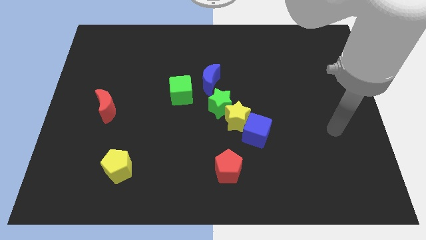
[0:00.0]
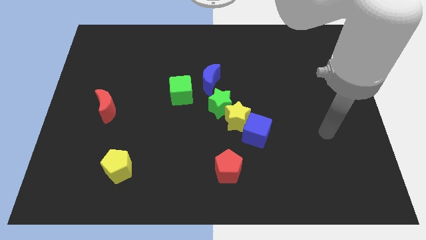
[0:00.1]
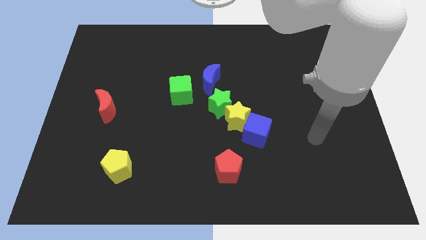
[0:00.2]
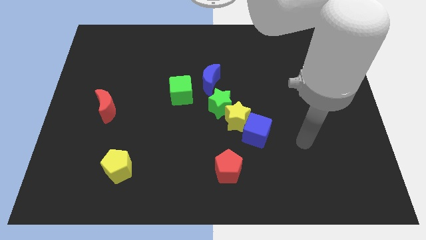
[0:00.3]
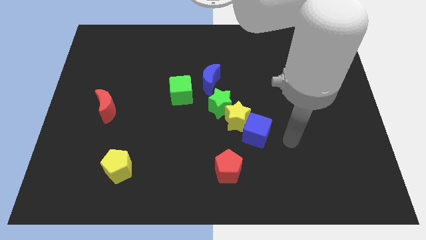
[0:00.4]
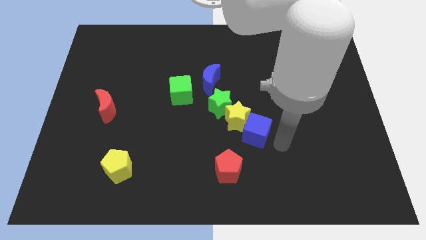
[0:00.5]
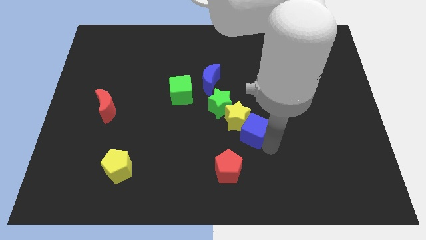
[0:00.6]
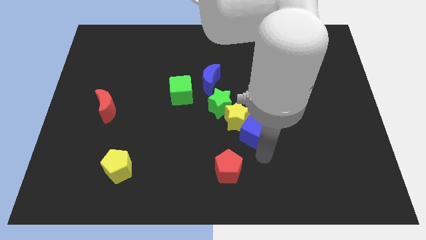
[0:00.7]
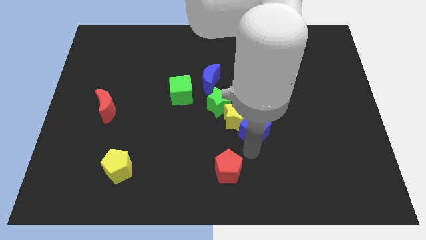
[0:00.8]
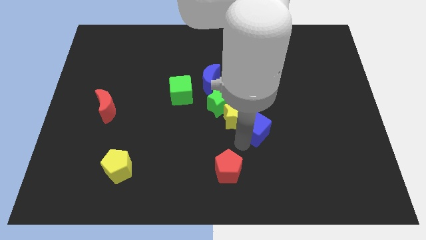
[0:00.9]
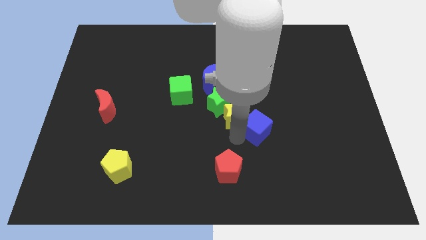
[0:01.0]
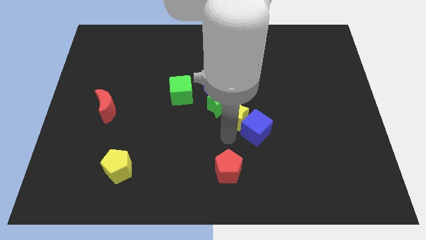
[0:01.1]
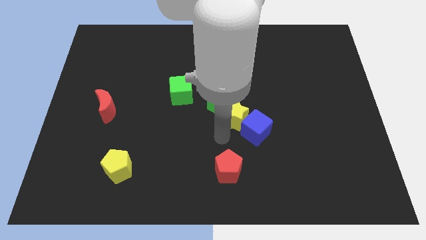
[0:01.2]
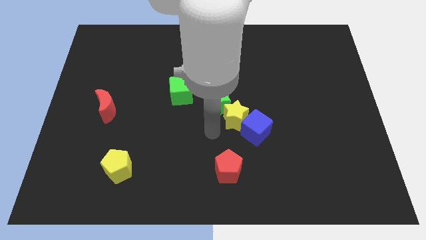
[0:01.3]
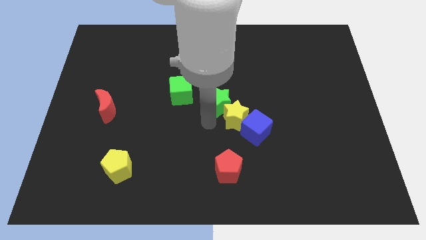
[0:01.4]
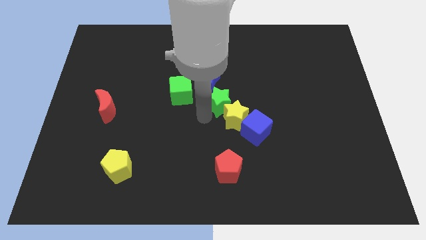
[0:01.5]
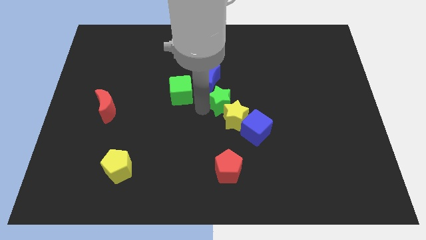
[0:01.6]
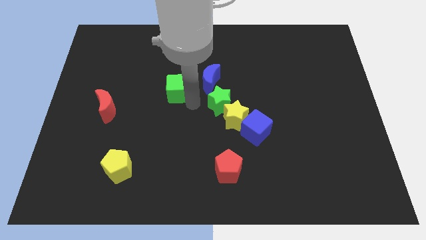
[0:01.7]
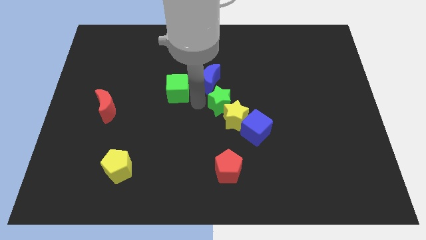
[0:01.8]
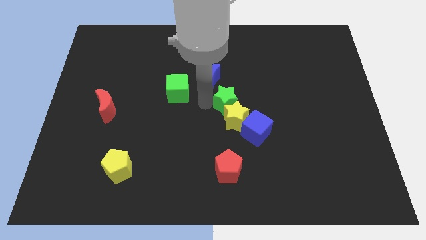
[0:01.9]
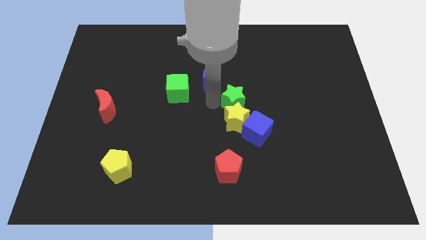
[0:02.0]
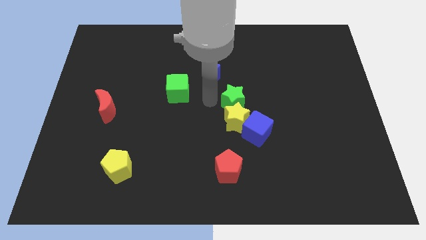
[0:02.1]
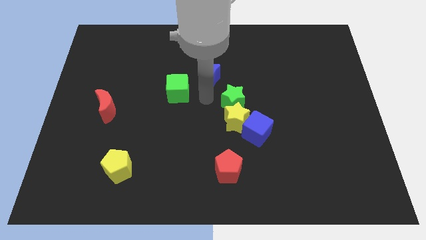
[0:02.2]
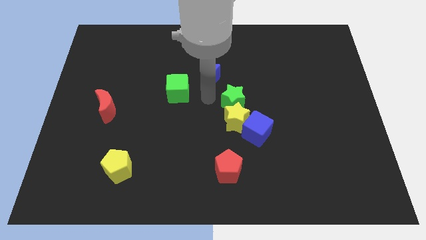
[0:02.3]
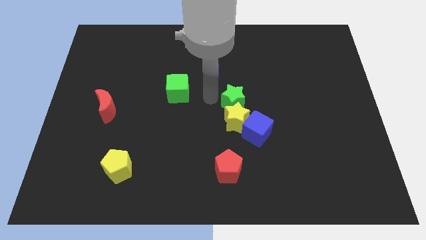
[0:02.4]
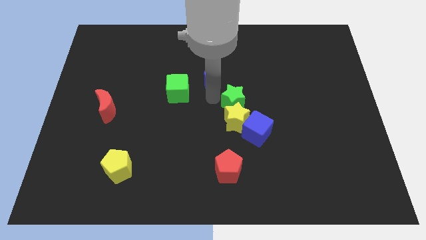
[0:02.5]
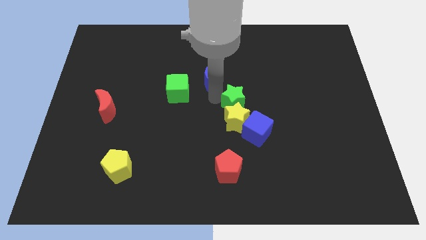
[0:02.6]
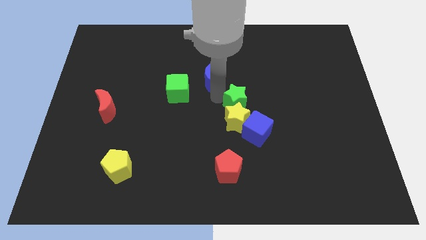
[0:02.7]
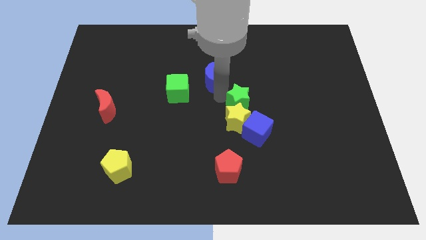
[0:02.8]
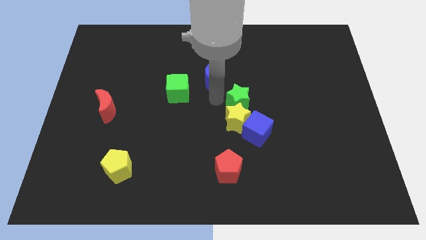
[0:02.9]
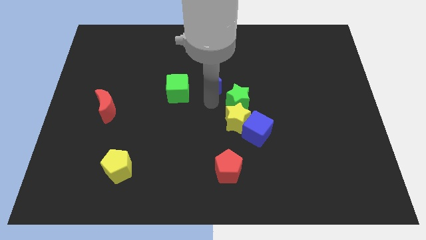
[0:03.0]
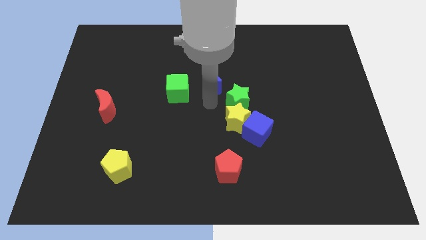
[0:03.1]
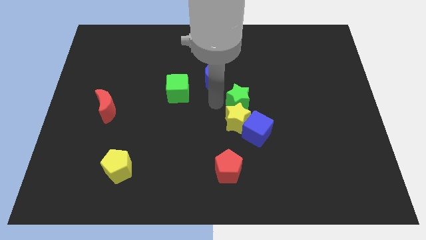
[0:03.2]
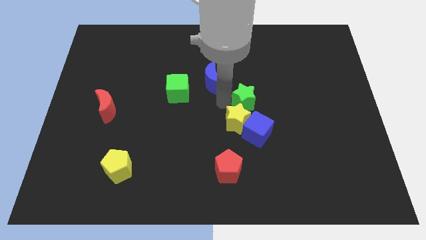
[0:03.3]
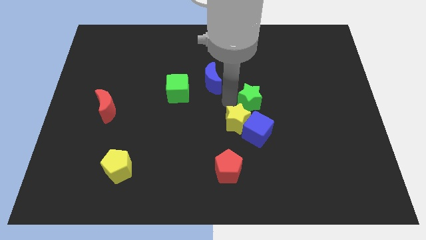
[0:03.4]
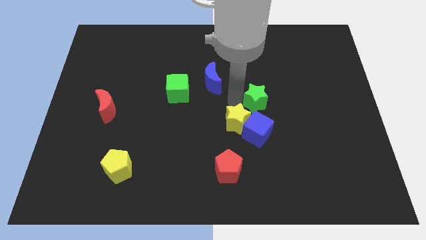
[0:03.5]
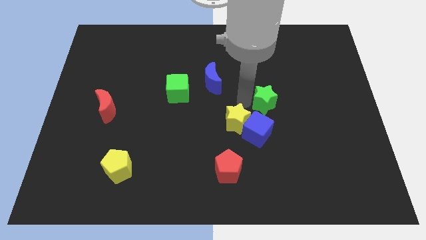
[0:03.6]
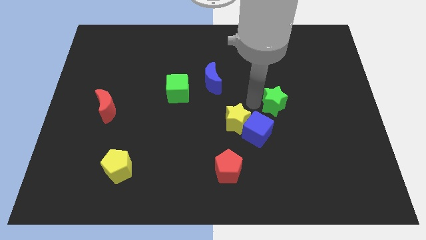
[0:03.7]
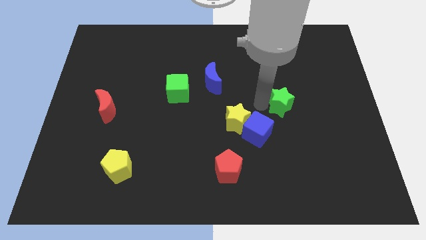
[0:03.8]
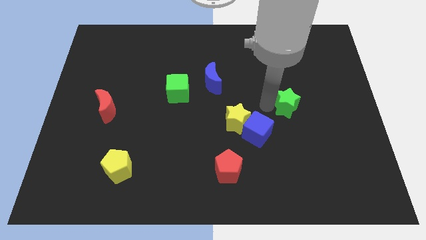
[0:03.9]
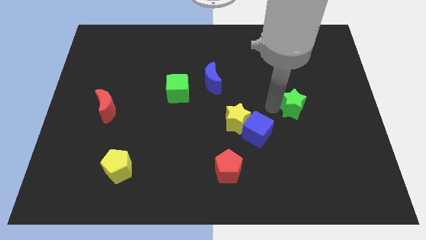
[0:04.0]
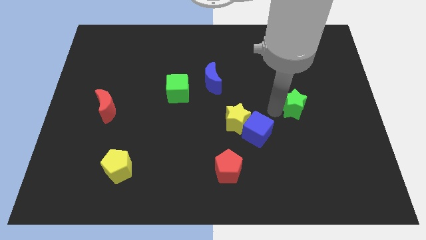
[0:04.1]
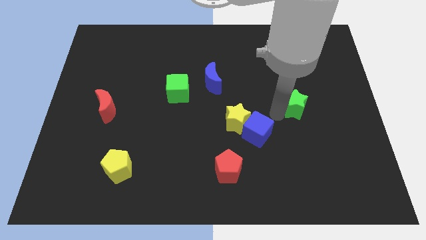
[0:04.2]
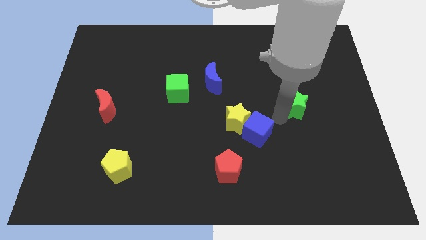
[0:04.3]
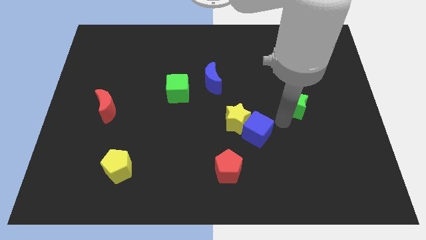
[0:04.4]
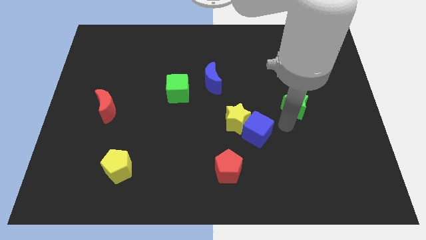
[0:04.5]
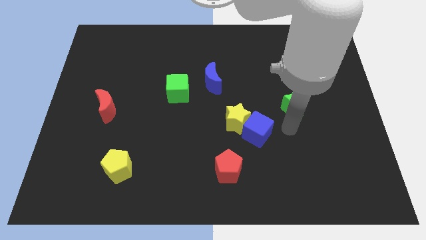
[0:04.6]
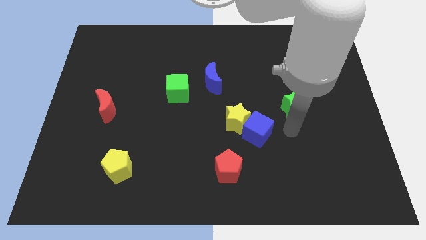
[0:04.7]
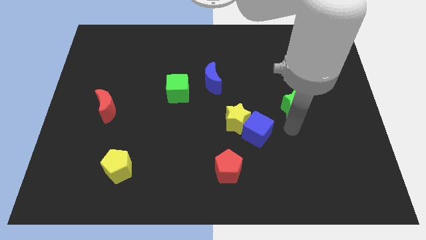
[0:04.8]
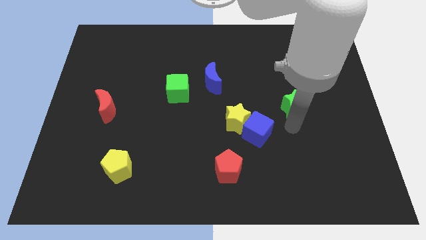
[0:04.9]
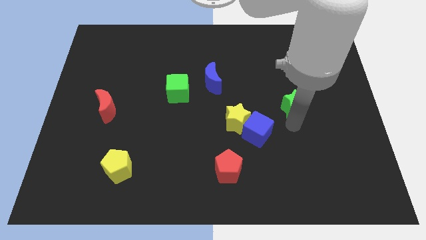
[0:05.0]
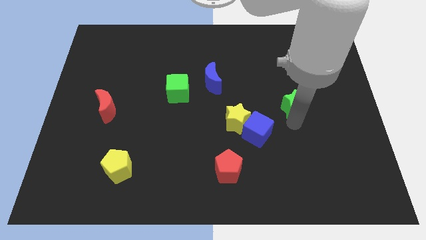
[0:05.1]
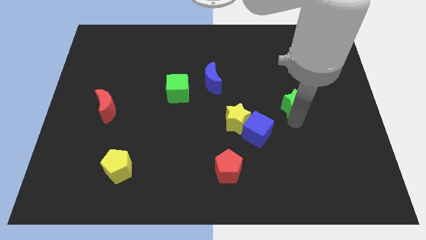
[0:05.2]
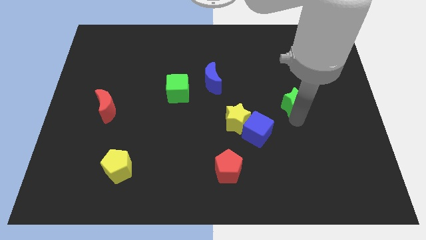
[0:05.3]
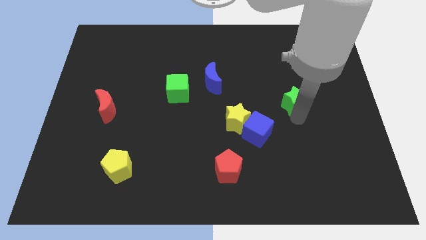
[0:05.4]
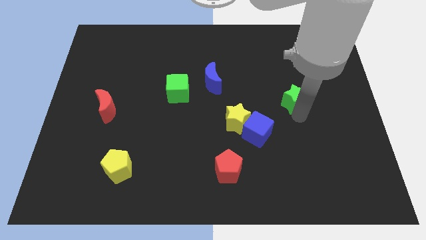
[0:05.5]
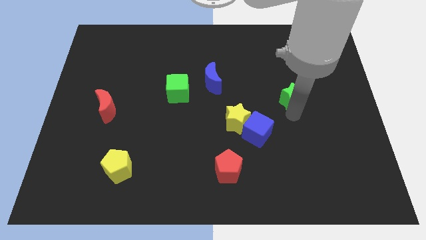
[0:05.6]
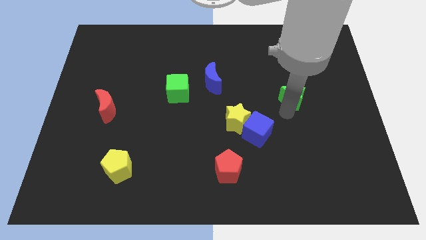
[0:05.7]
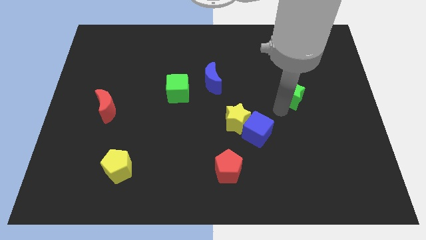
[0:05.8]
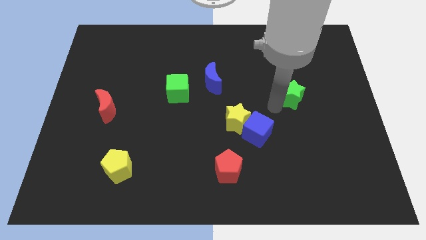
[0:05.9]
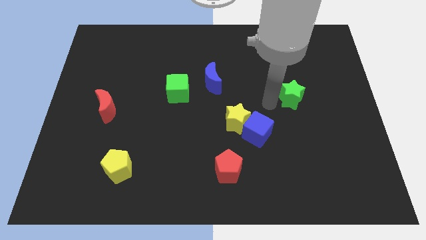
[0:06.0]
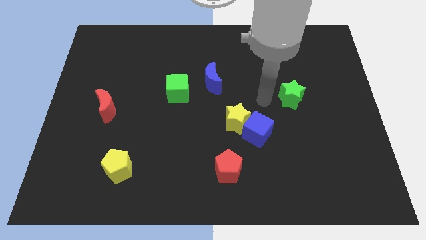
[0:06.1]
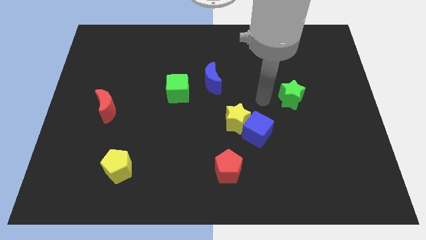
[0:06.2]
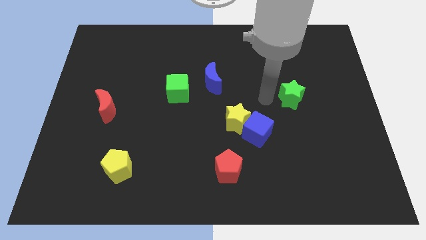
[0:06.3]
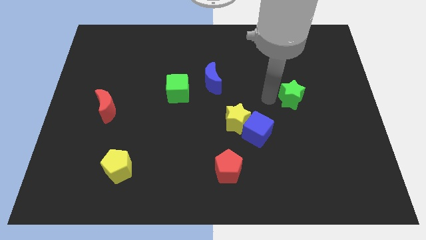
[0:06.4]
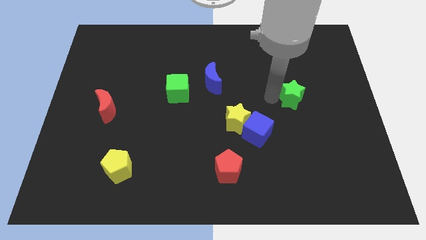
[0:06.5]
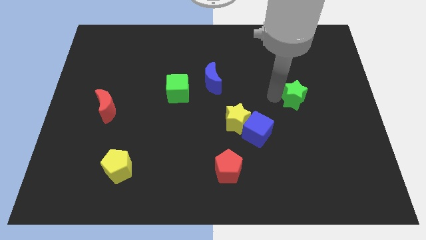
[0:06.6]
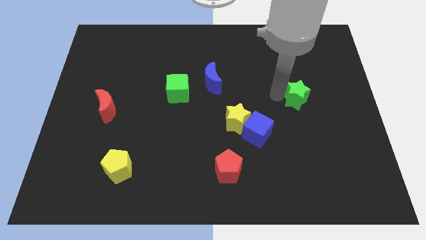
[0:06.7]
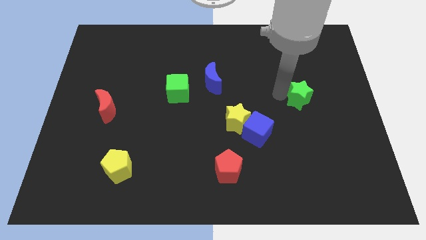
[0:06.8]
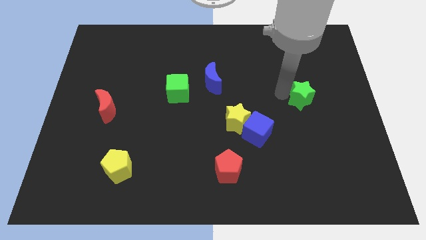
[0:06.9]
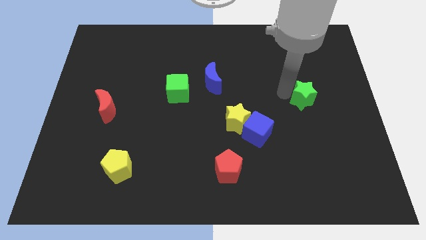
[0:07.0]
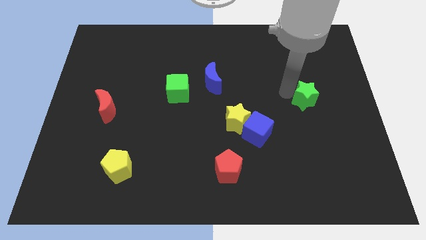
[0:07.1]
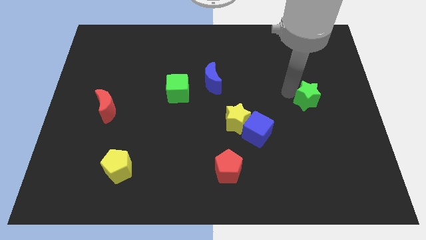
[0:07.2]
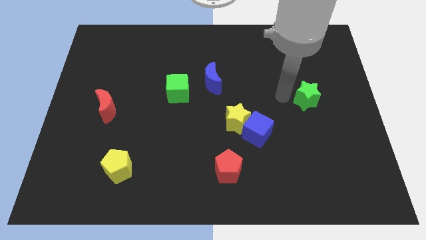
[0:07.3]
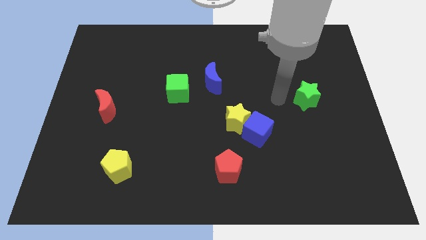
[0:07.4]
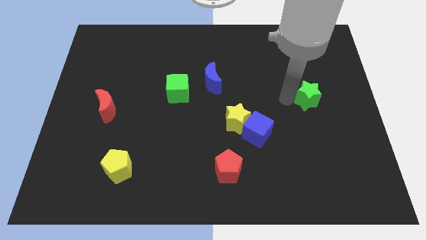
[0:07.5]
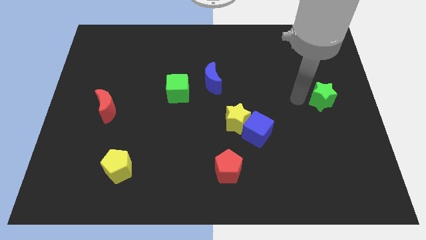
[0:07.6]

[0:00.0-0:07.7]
push the green star to the right side of the board
